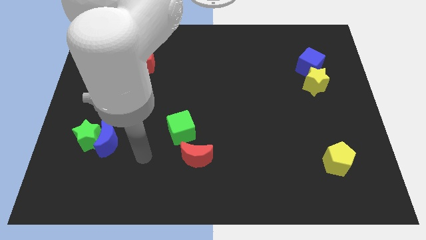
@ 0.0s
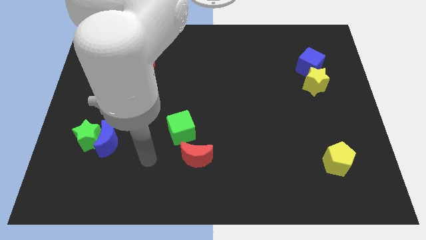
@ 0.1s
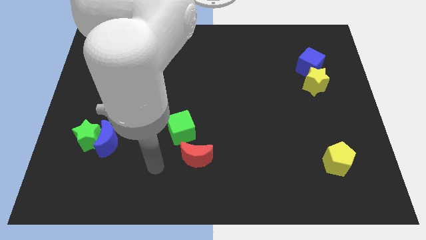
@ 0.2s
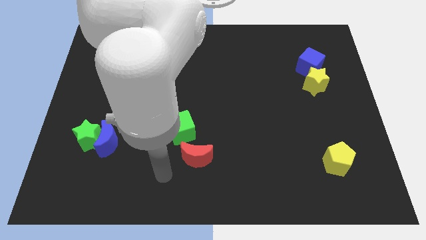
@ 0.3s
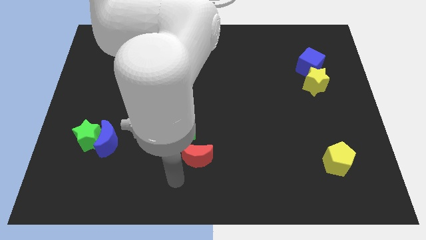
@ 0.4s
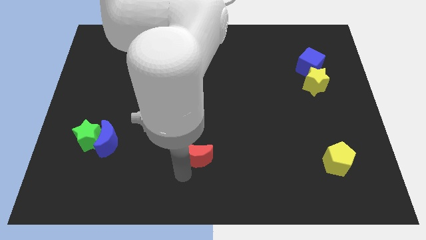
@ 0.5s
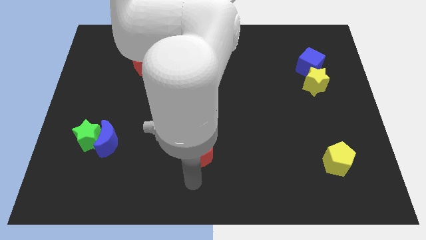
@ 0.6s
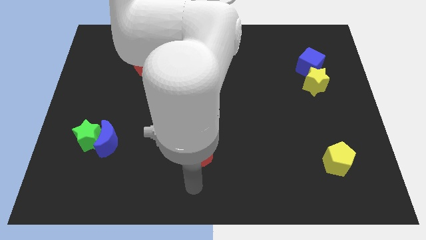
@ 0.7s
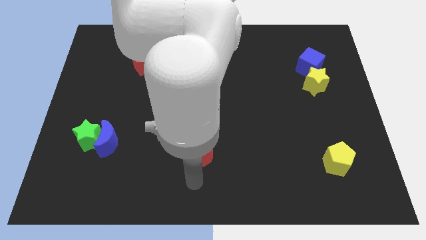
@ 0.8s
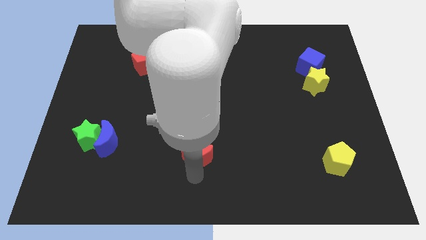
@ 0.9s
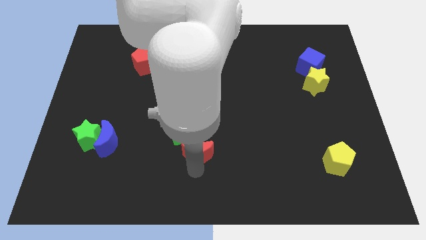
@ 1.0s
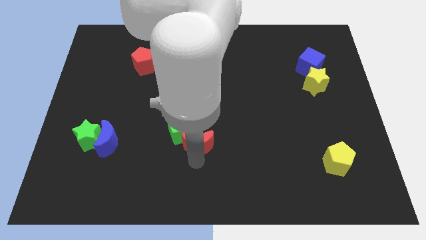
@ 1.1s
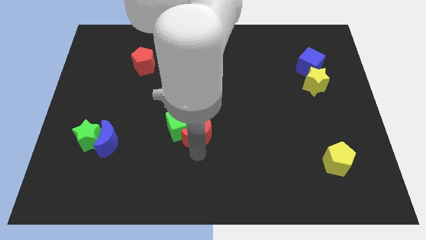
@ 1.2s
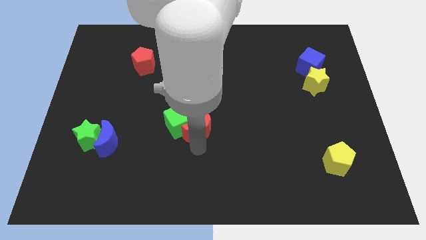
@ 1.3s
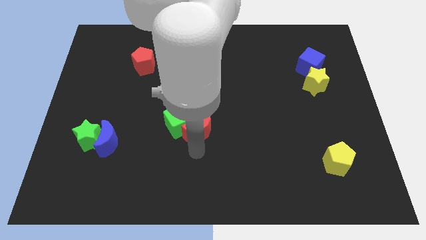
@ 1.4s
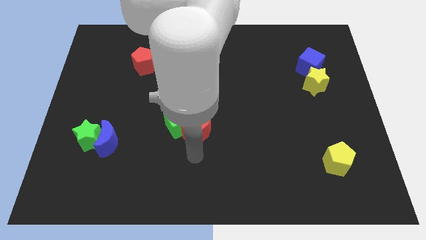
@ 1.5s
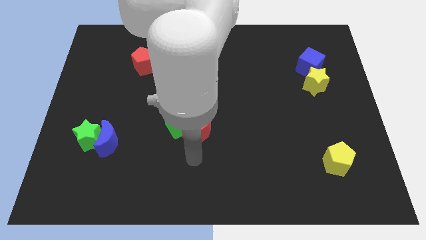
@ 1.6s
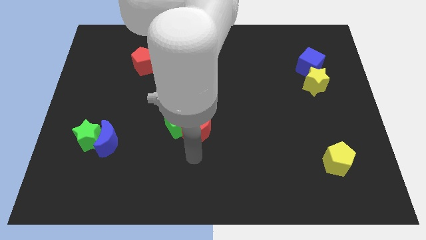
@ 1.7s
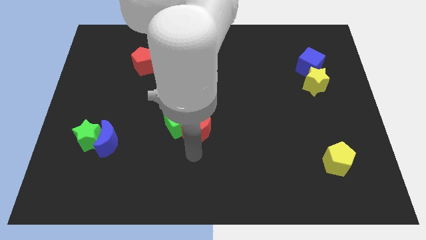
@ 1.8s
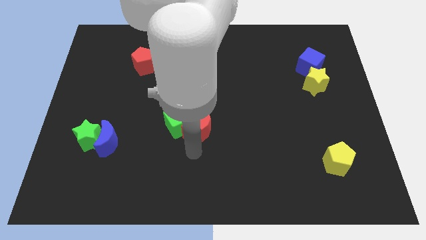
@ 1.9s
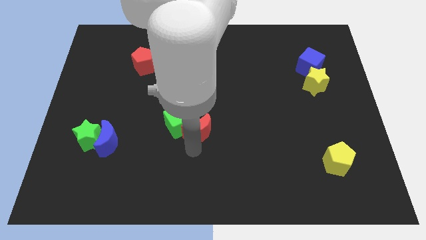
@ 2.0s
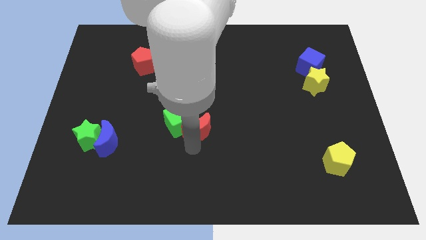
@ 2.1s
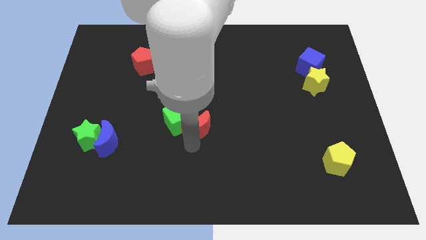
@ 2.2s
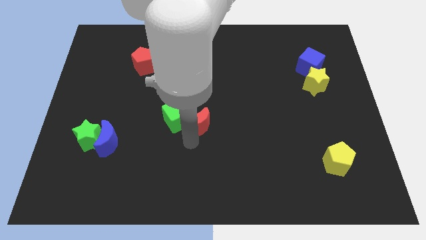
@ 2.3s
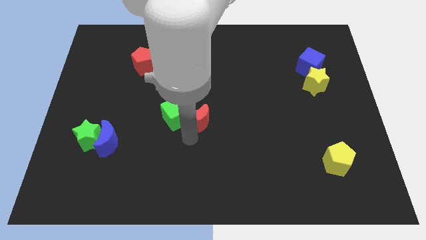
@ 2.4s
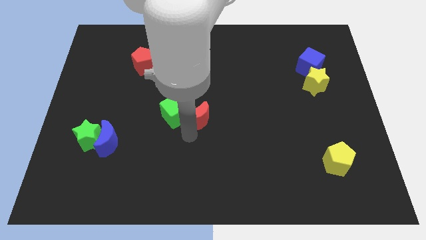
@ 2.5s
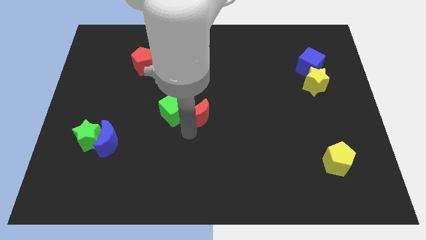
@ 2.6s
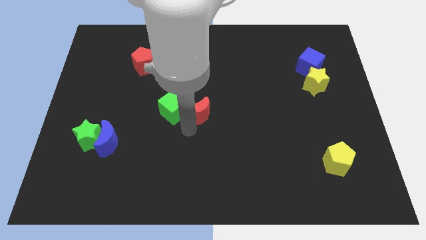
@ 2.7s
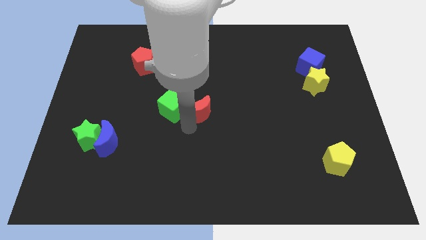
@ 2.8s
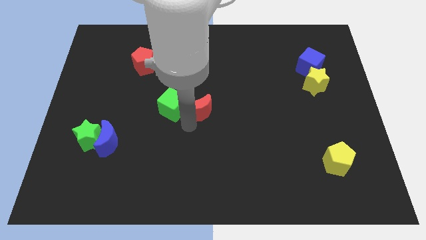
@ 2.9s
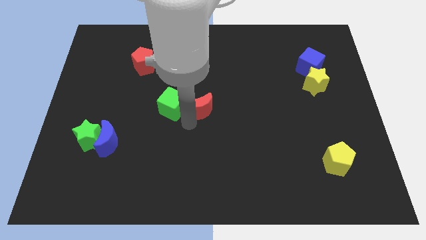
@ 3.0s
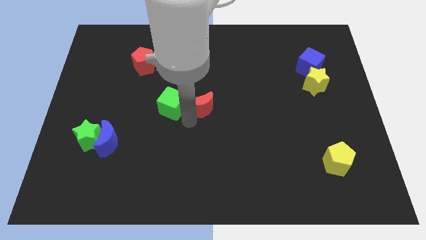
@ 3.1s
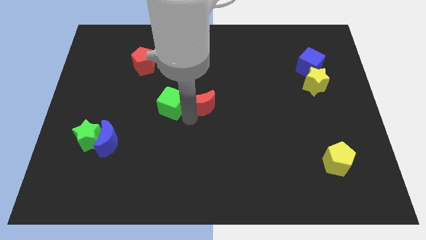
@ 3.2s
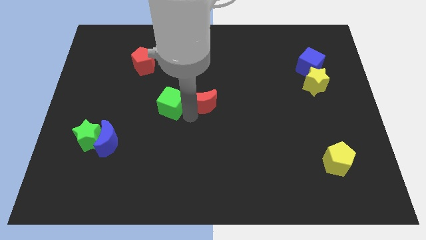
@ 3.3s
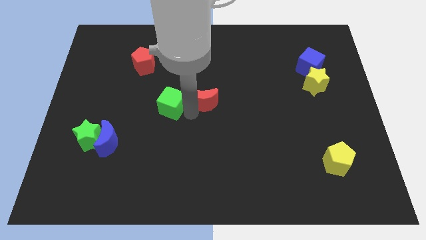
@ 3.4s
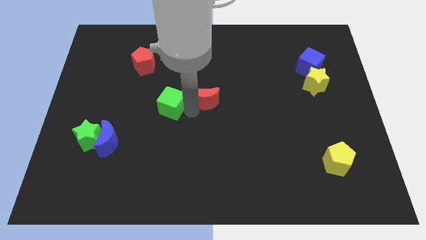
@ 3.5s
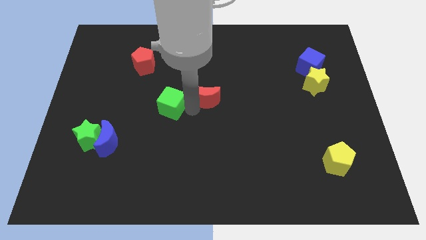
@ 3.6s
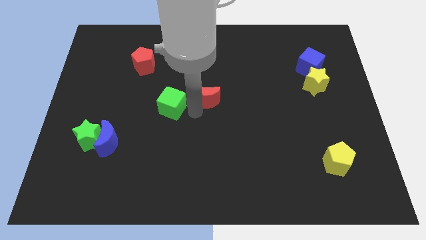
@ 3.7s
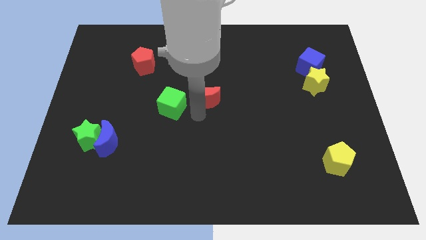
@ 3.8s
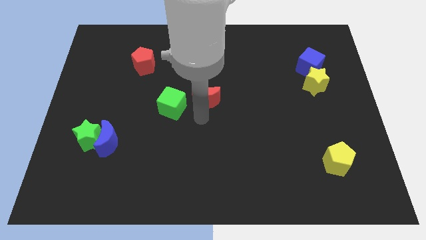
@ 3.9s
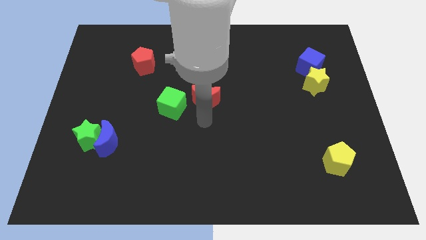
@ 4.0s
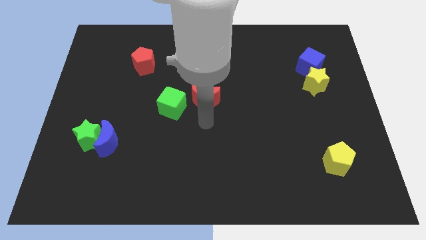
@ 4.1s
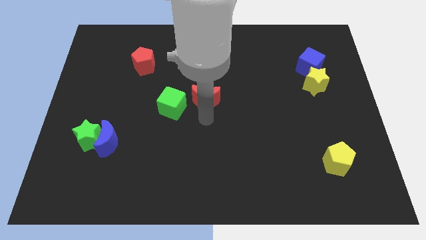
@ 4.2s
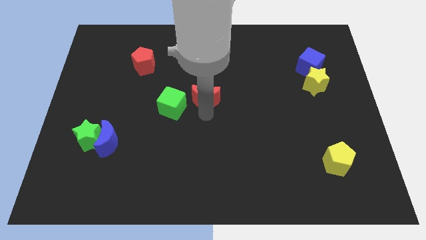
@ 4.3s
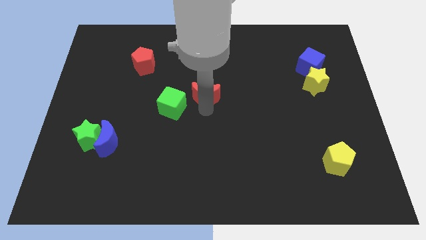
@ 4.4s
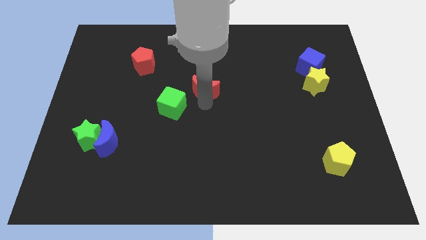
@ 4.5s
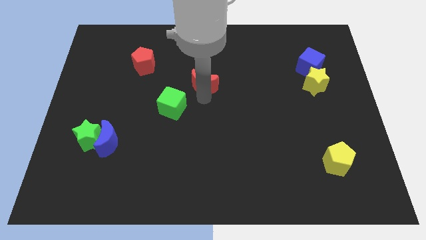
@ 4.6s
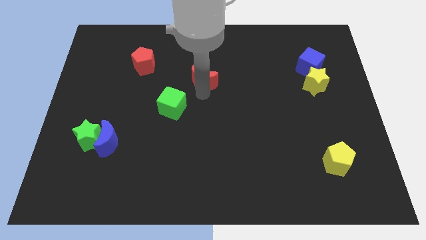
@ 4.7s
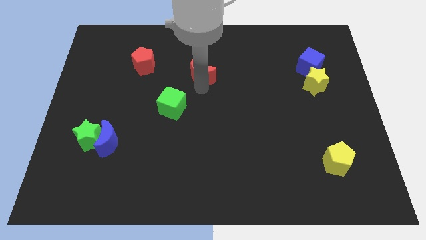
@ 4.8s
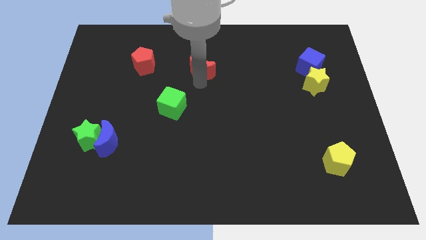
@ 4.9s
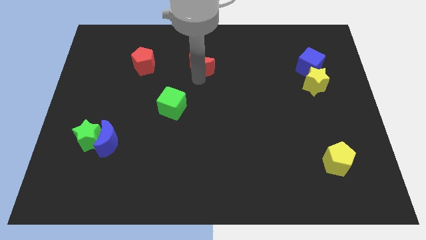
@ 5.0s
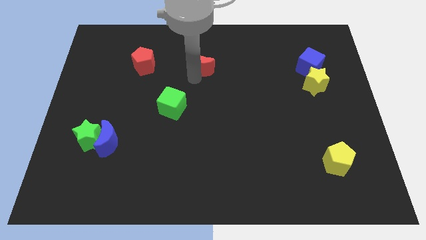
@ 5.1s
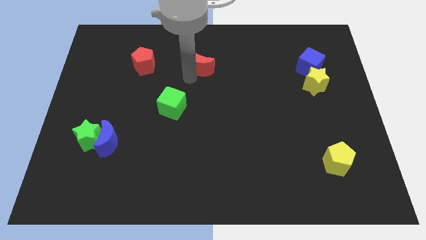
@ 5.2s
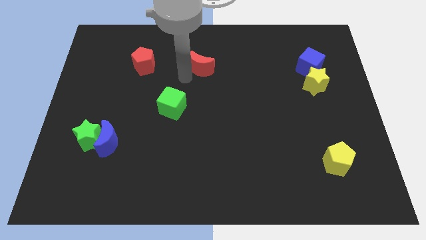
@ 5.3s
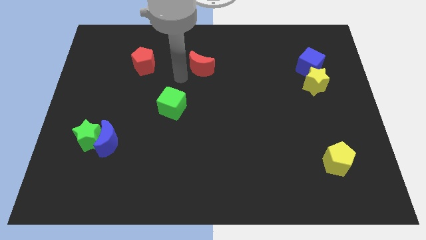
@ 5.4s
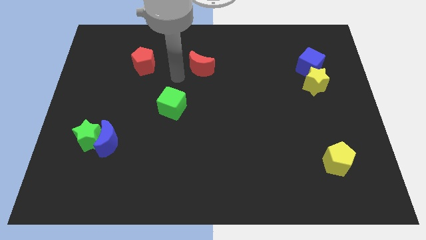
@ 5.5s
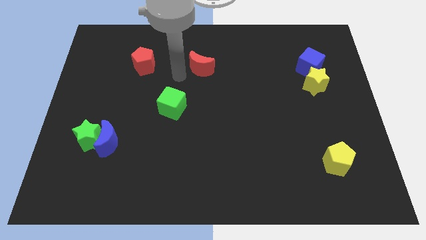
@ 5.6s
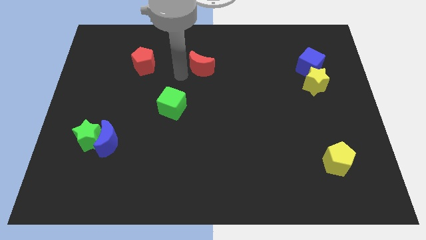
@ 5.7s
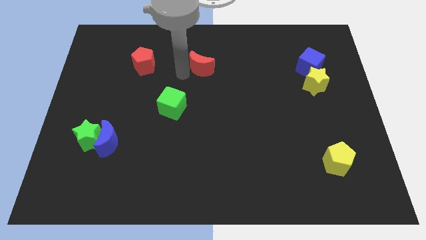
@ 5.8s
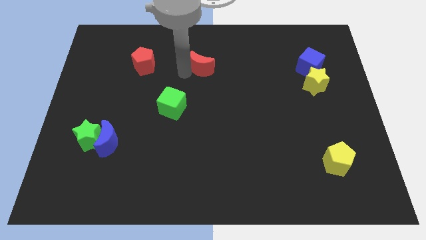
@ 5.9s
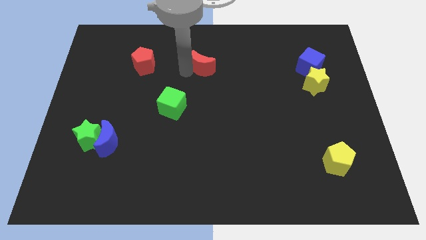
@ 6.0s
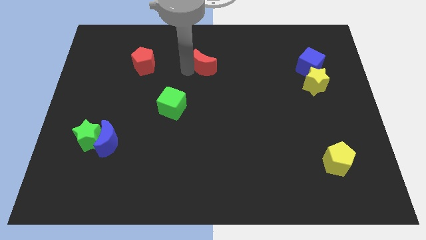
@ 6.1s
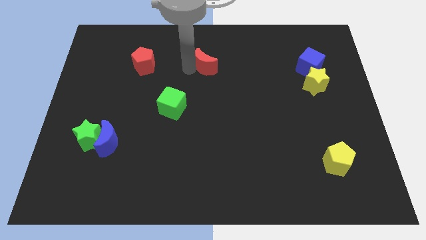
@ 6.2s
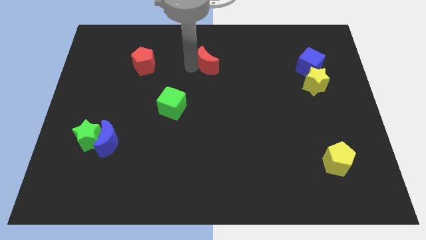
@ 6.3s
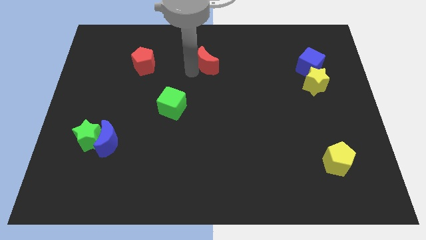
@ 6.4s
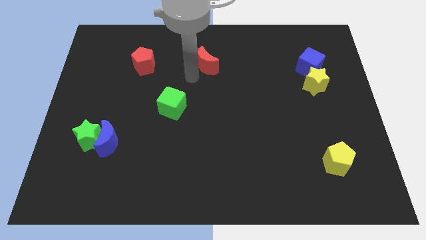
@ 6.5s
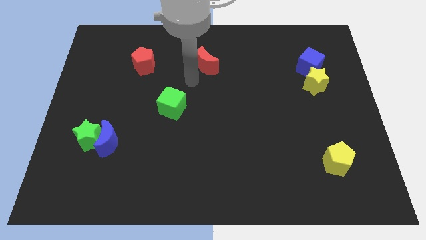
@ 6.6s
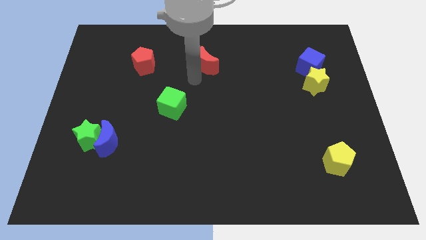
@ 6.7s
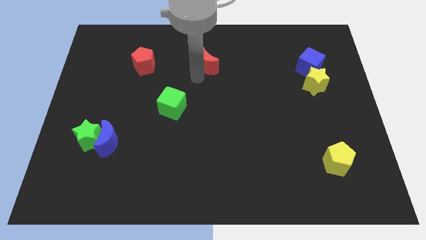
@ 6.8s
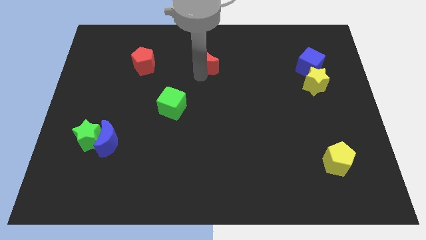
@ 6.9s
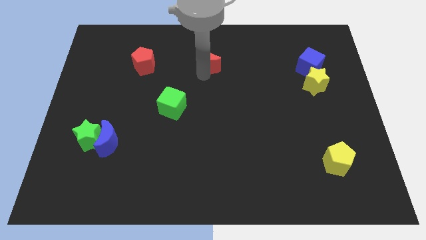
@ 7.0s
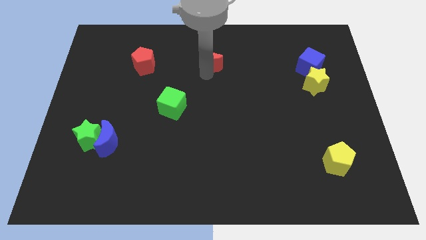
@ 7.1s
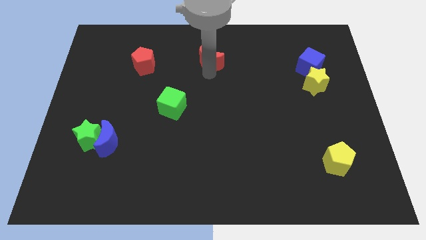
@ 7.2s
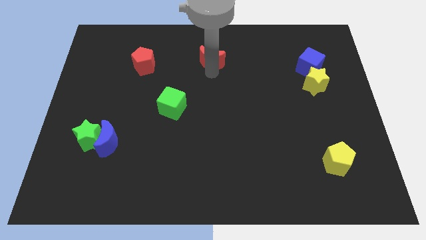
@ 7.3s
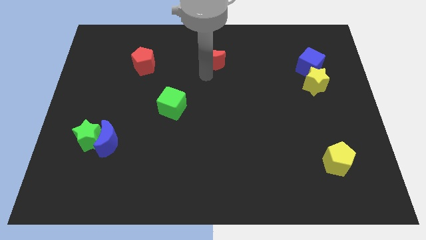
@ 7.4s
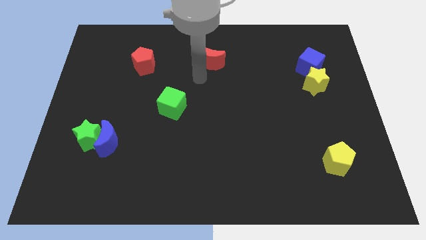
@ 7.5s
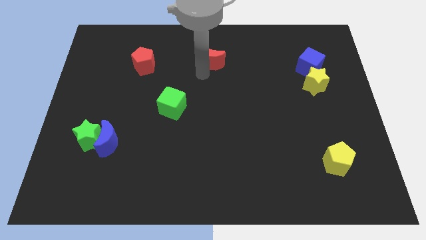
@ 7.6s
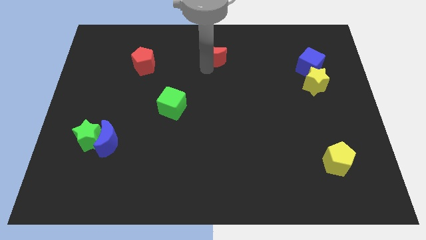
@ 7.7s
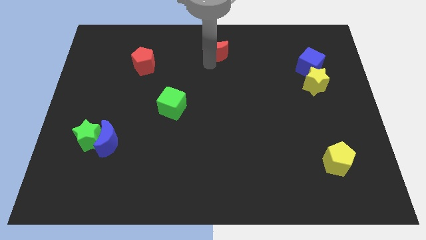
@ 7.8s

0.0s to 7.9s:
push the red moon to the towards your base
